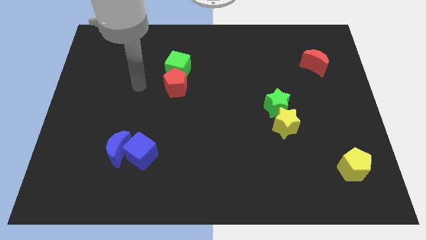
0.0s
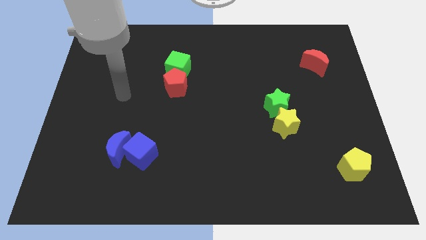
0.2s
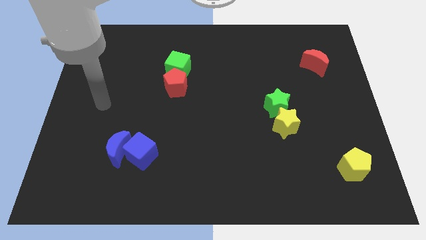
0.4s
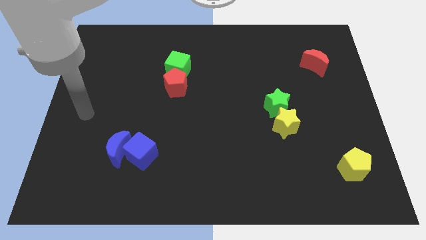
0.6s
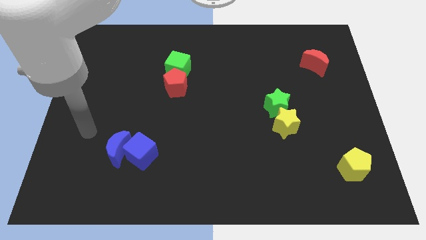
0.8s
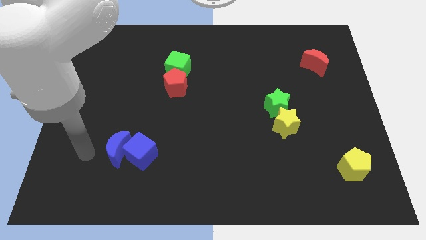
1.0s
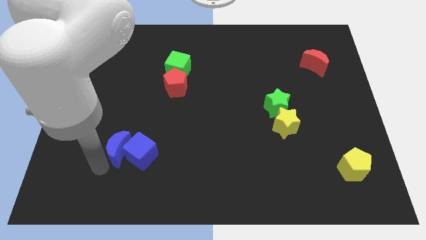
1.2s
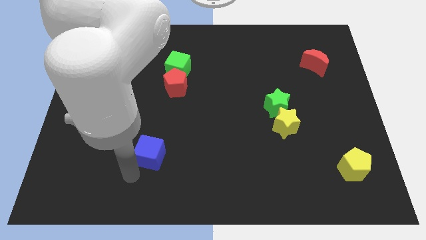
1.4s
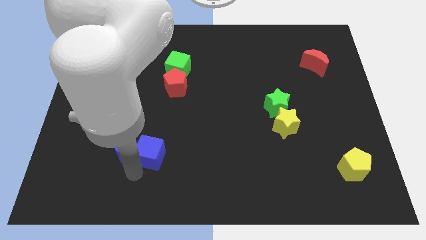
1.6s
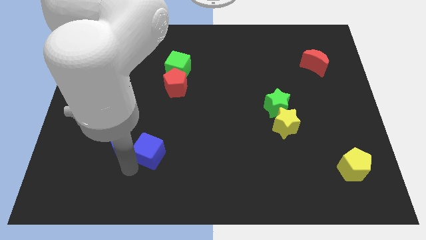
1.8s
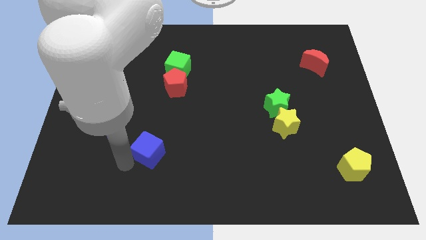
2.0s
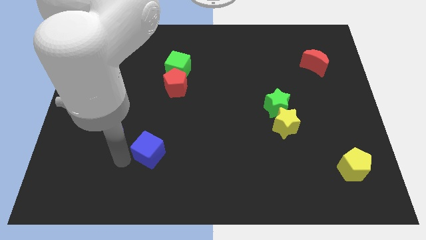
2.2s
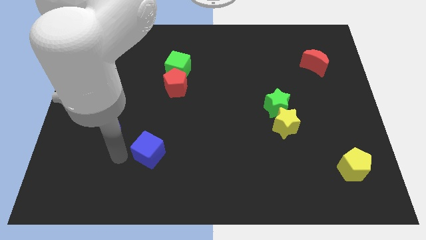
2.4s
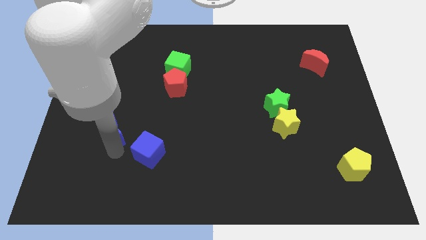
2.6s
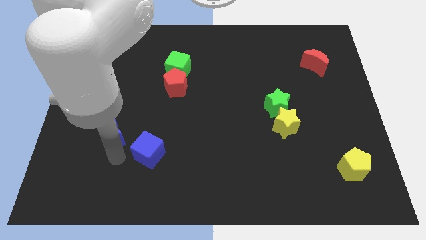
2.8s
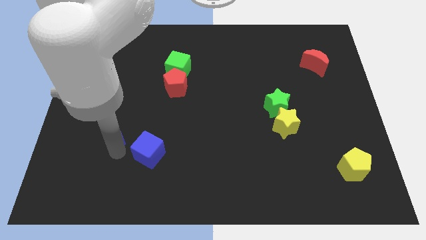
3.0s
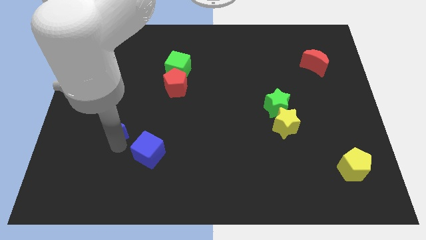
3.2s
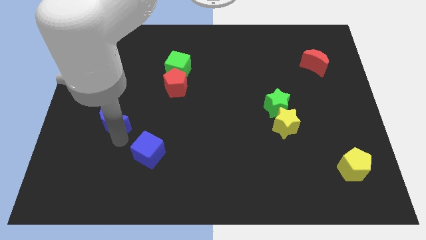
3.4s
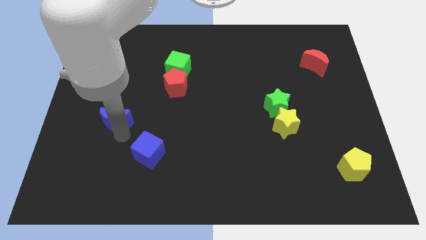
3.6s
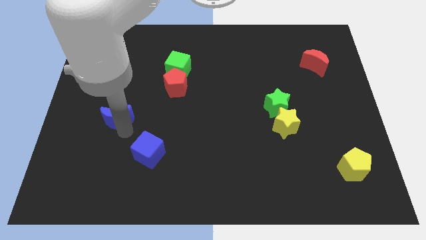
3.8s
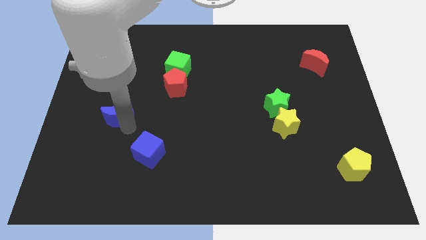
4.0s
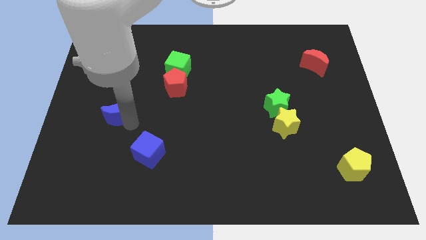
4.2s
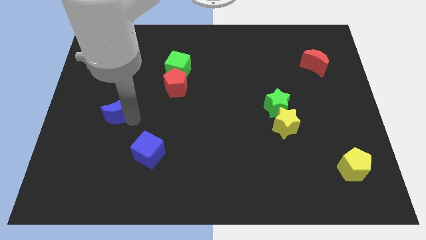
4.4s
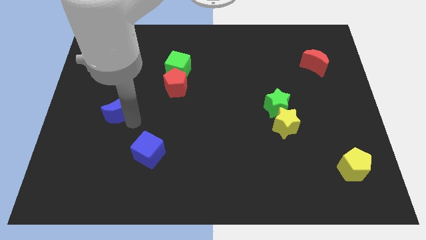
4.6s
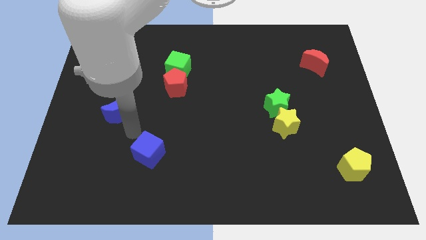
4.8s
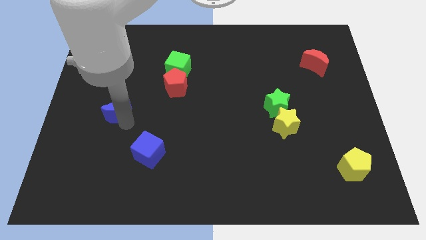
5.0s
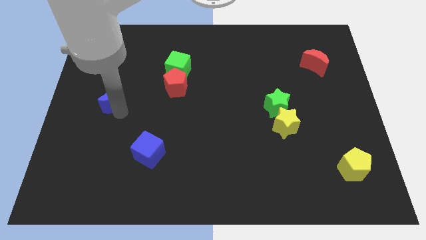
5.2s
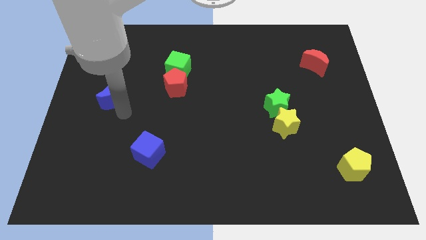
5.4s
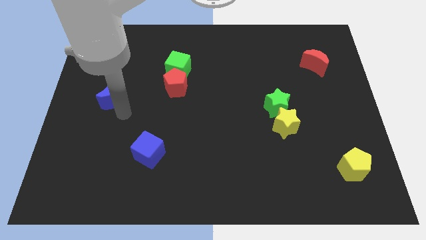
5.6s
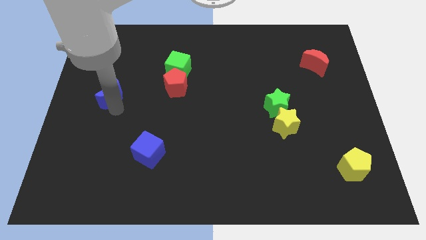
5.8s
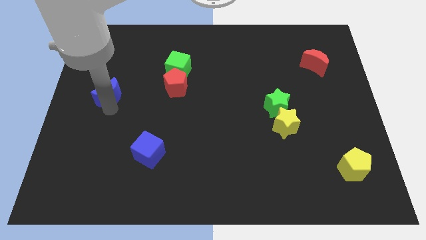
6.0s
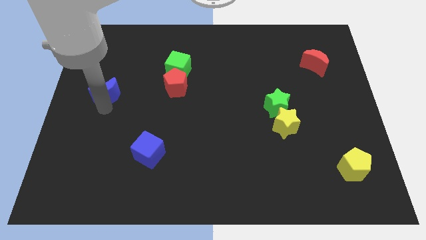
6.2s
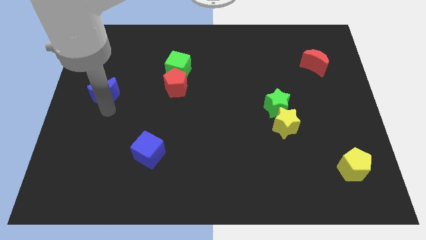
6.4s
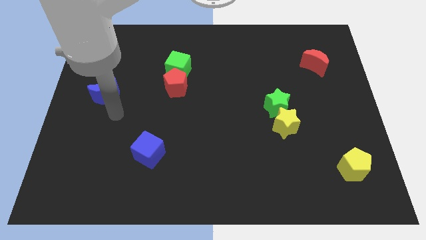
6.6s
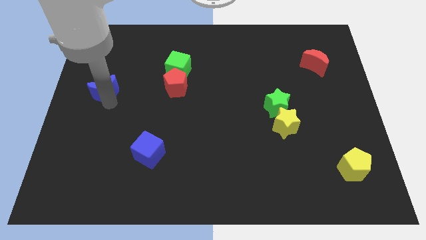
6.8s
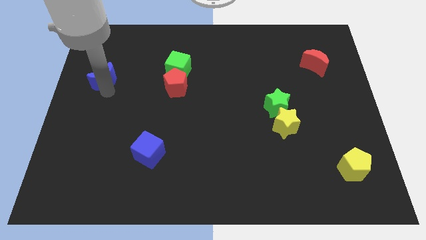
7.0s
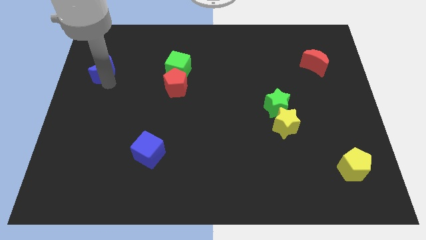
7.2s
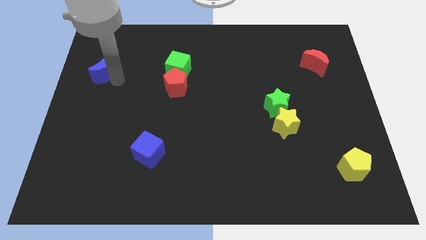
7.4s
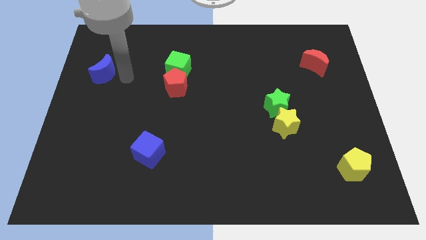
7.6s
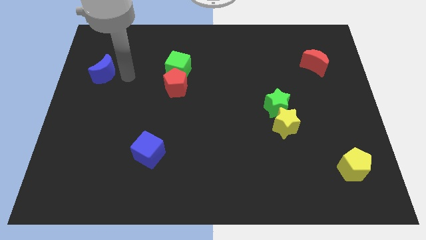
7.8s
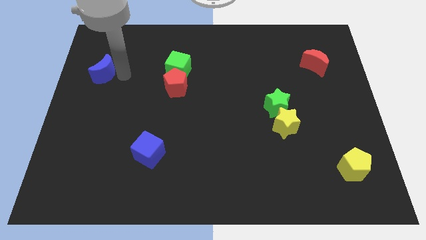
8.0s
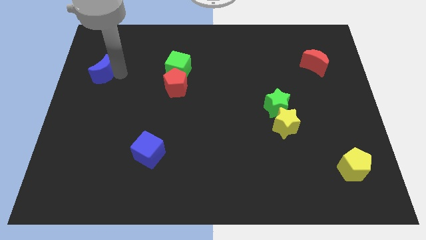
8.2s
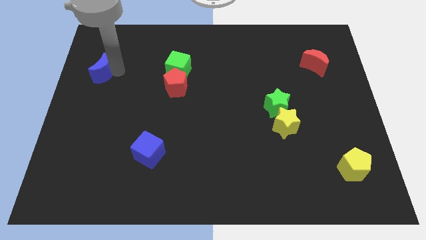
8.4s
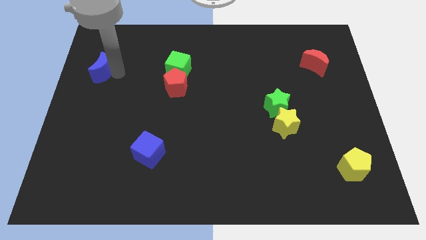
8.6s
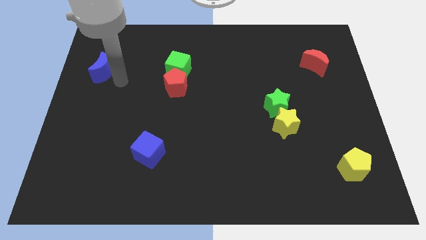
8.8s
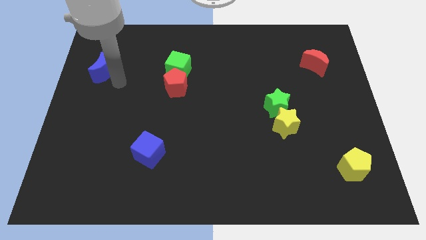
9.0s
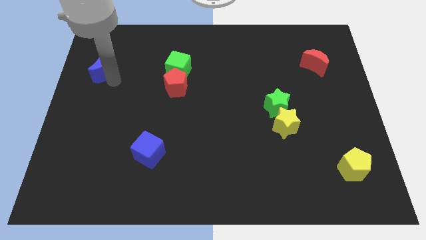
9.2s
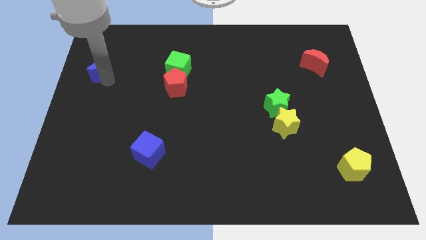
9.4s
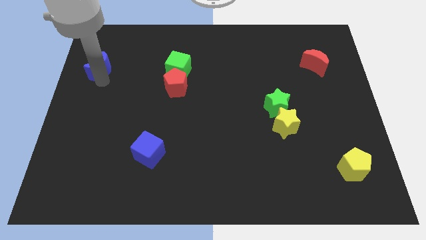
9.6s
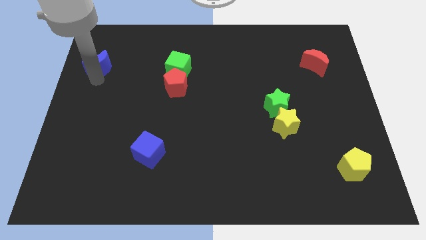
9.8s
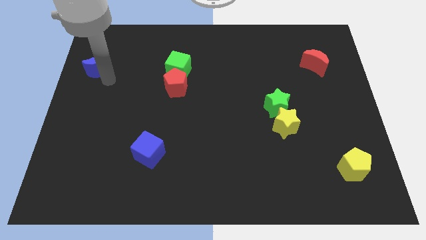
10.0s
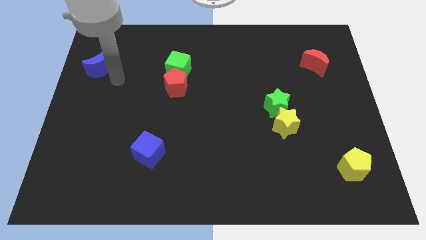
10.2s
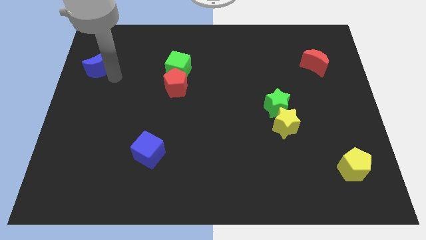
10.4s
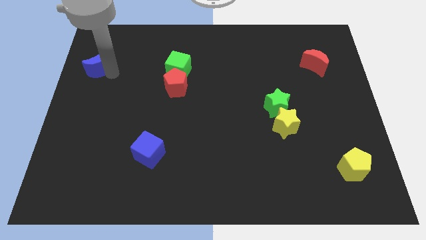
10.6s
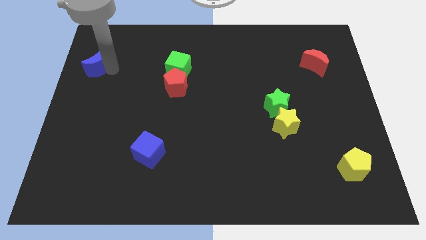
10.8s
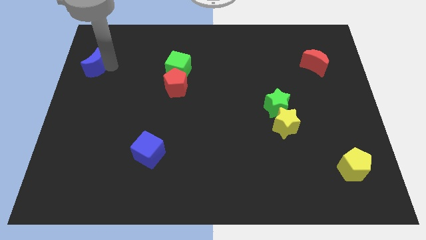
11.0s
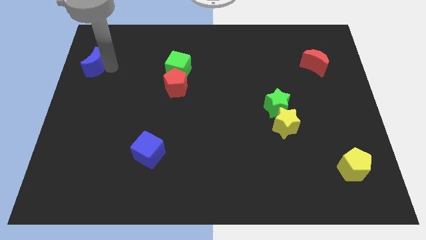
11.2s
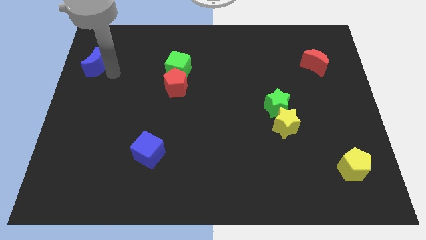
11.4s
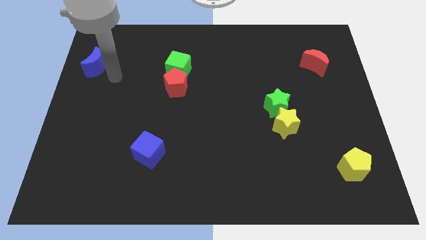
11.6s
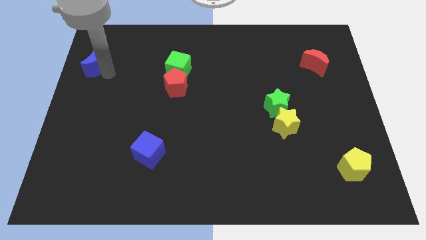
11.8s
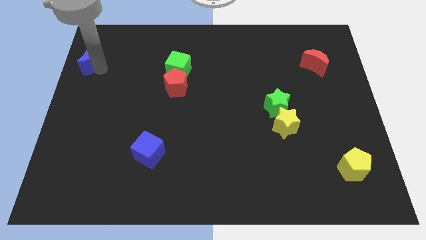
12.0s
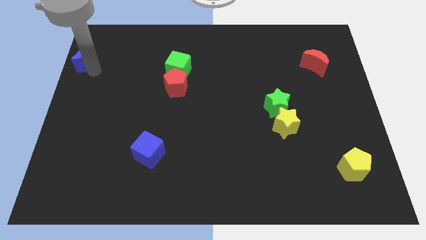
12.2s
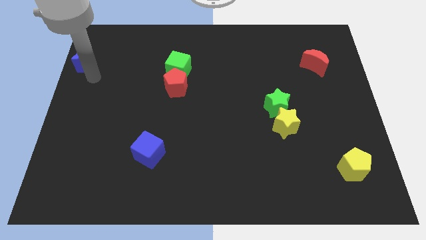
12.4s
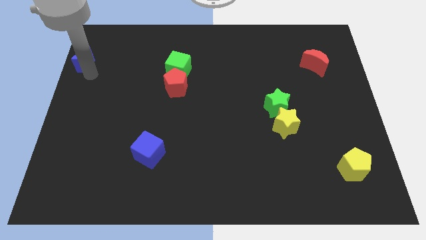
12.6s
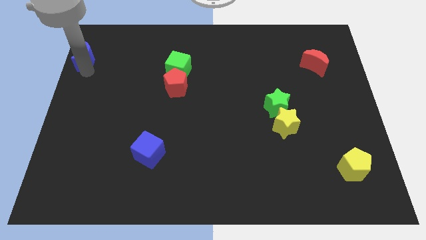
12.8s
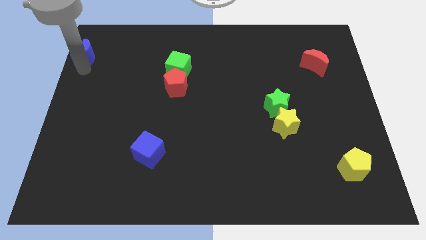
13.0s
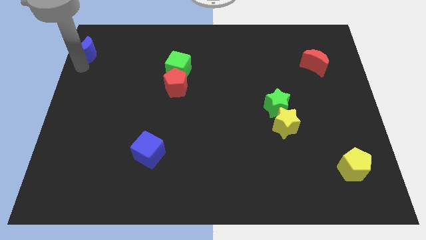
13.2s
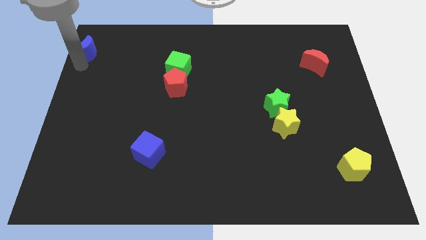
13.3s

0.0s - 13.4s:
move the blue moon to the top left of the board
